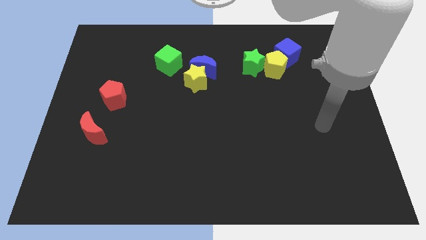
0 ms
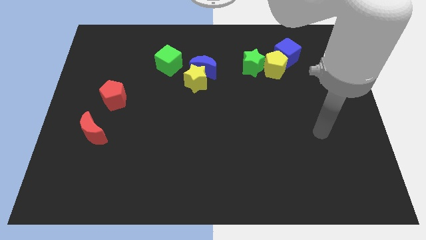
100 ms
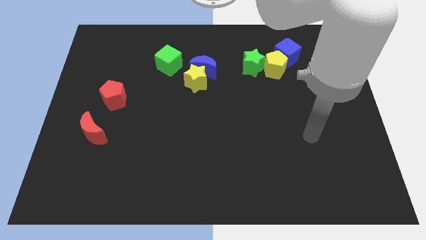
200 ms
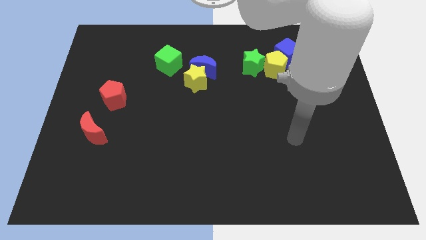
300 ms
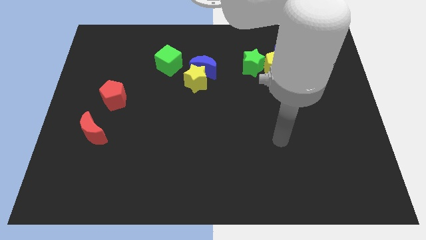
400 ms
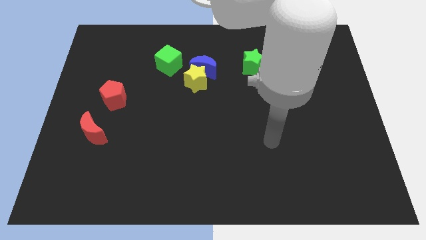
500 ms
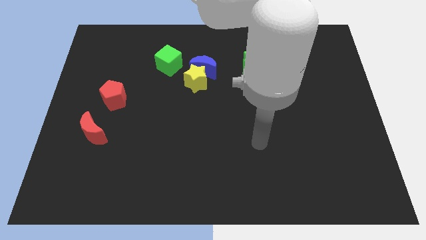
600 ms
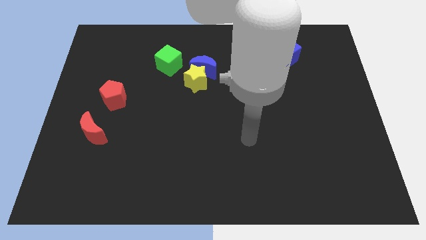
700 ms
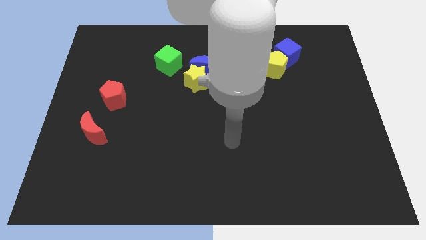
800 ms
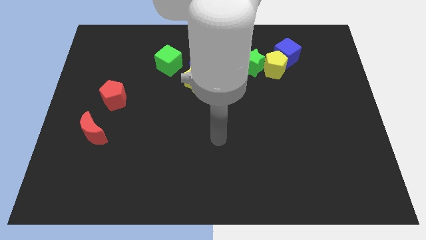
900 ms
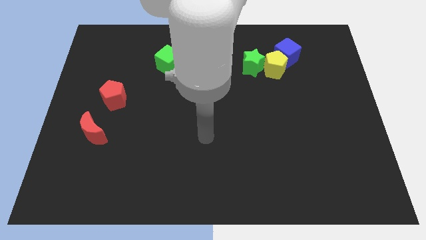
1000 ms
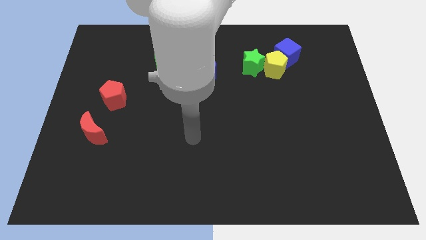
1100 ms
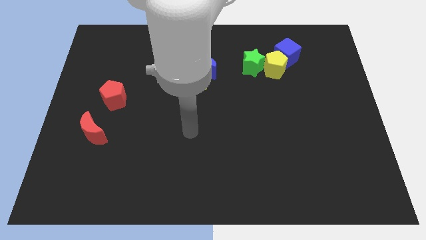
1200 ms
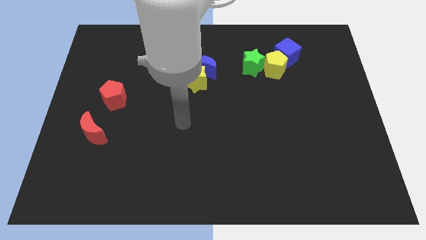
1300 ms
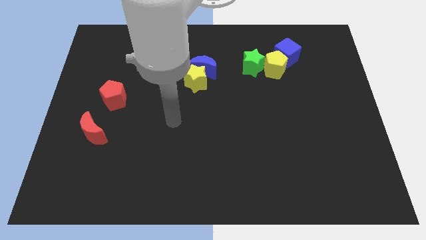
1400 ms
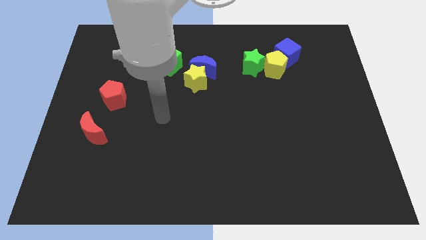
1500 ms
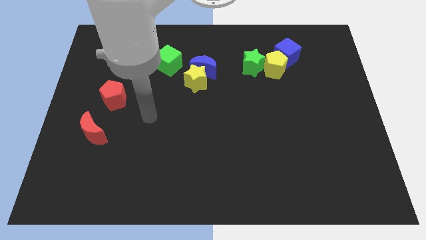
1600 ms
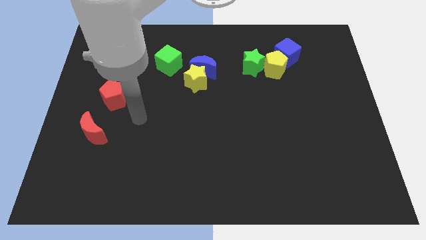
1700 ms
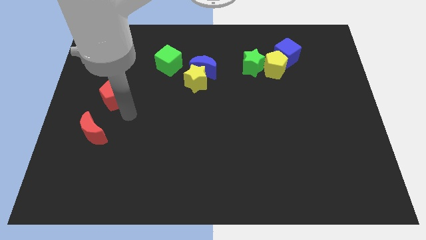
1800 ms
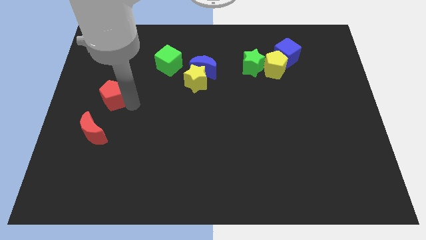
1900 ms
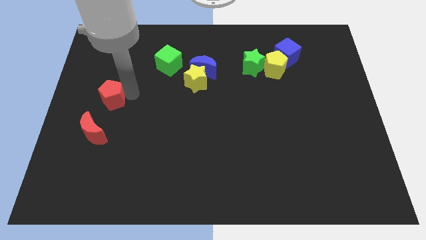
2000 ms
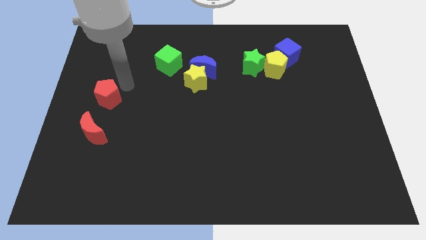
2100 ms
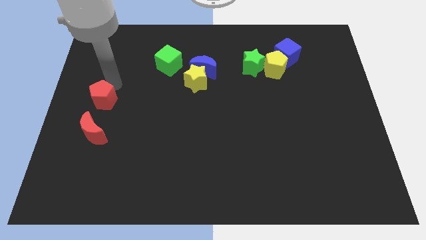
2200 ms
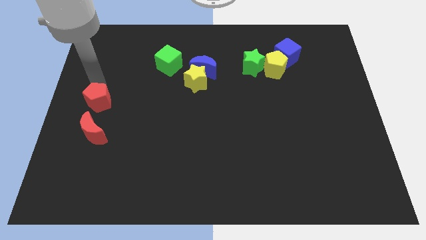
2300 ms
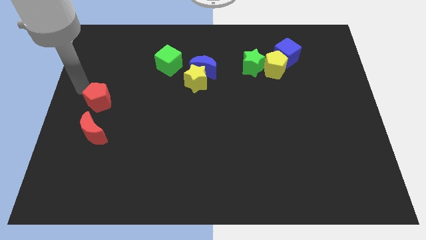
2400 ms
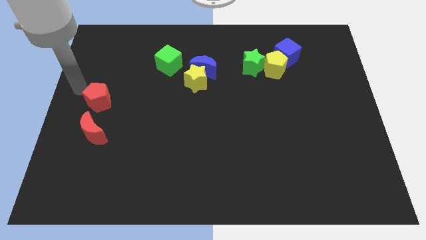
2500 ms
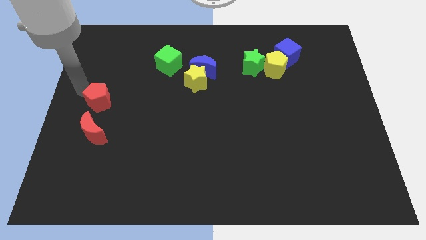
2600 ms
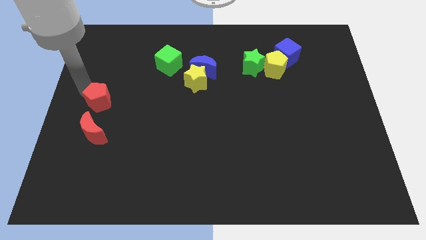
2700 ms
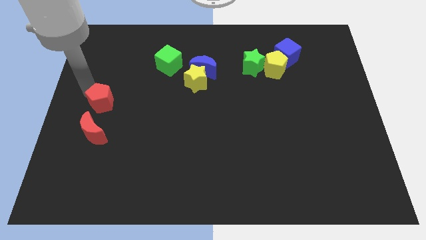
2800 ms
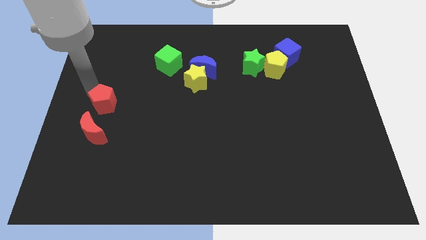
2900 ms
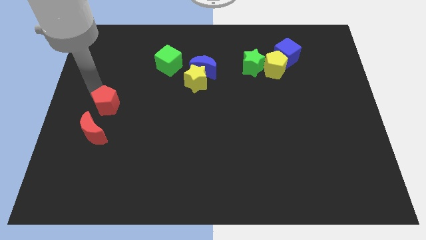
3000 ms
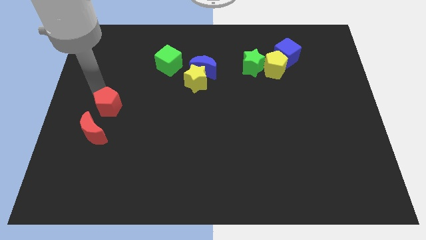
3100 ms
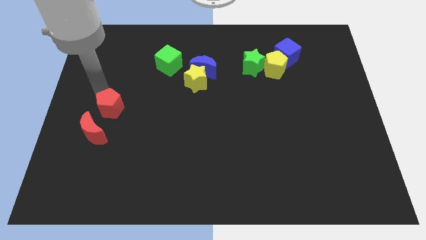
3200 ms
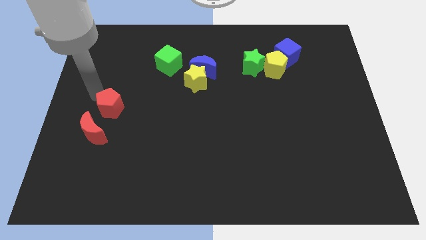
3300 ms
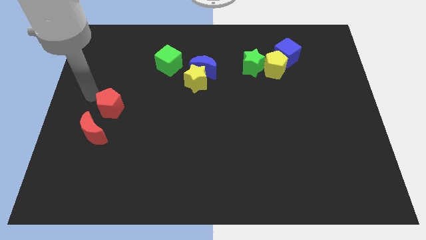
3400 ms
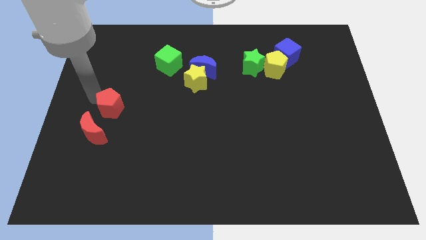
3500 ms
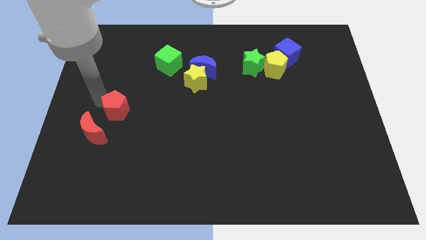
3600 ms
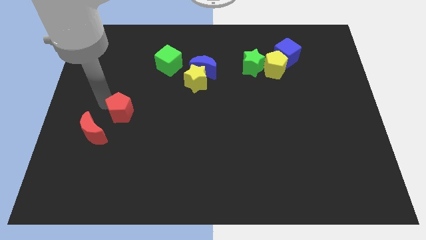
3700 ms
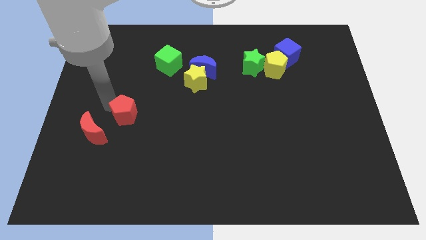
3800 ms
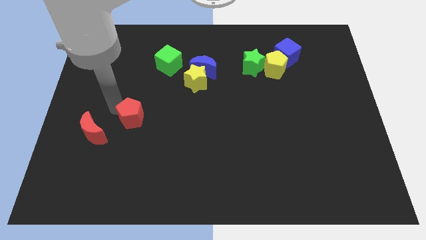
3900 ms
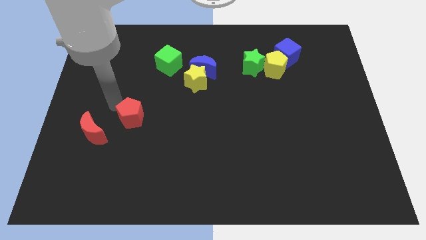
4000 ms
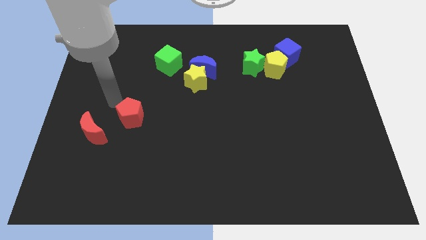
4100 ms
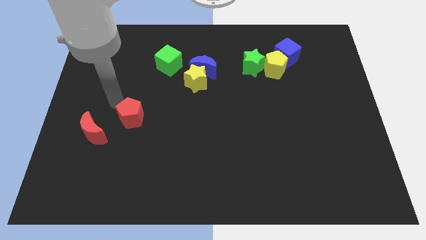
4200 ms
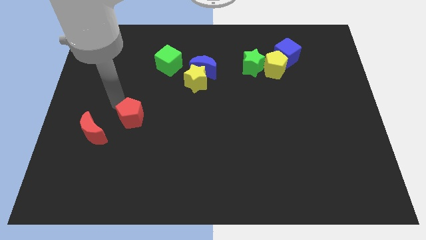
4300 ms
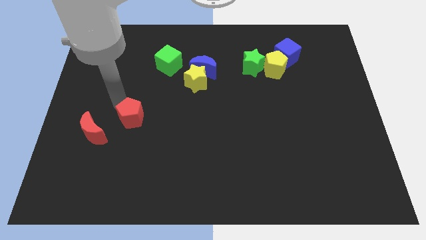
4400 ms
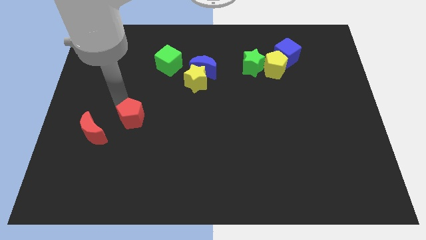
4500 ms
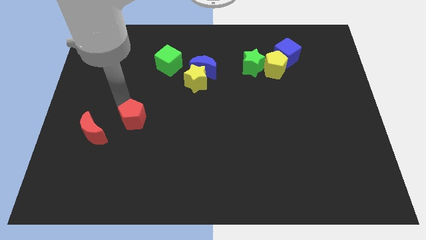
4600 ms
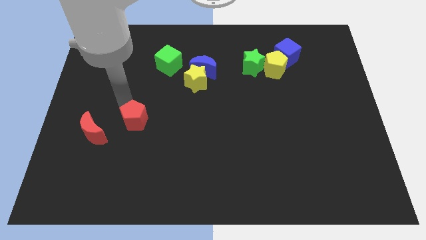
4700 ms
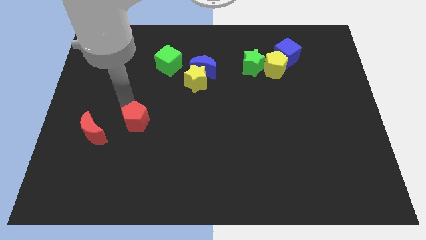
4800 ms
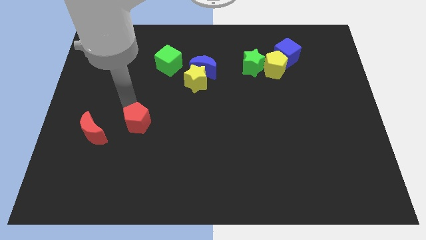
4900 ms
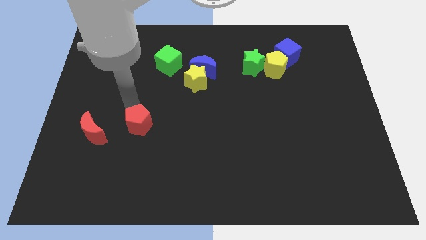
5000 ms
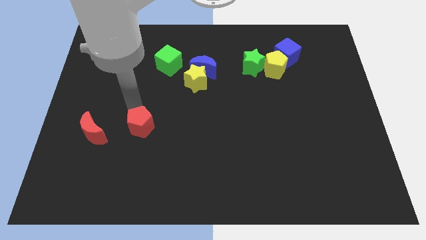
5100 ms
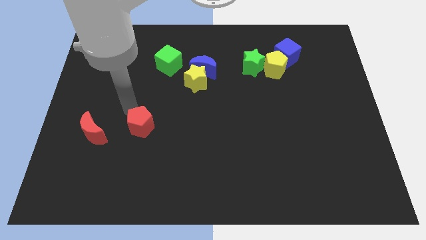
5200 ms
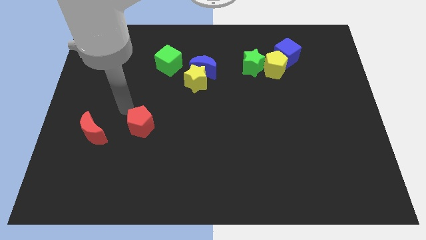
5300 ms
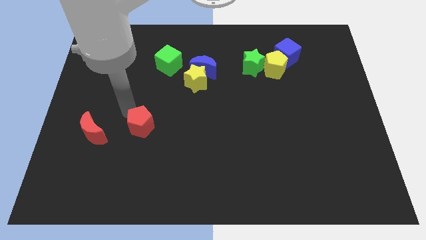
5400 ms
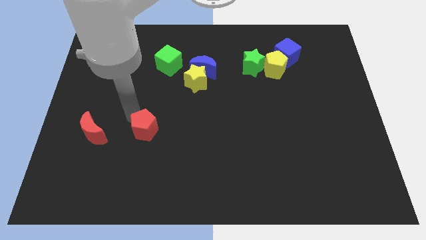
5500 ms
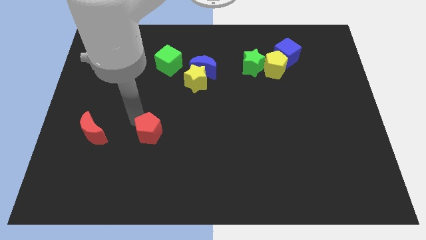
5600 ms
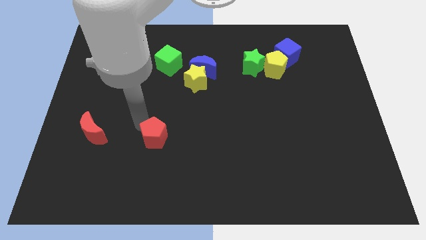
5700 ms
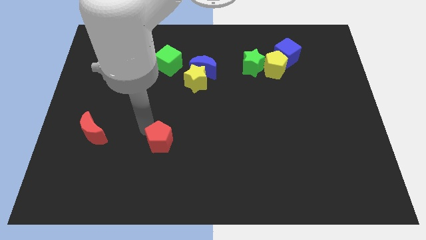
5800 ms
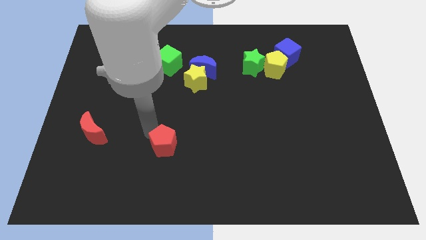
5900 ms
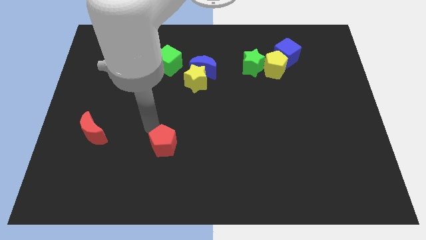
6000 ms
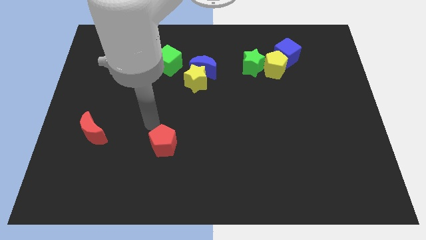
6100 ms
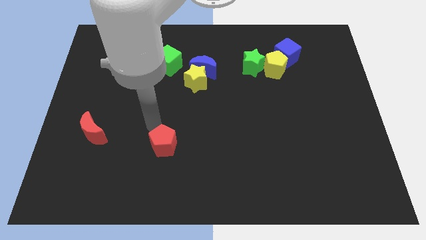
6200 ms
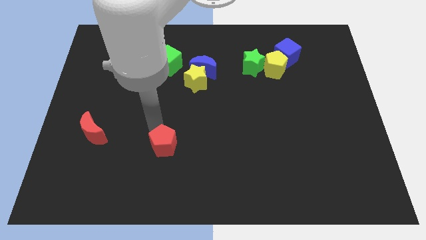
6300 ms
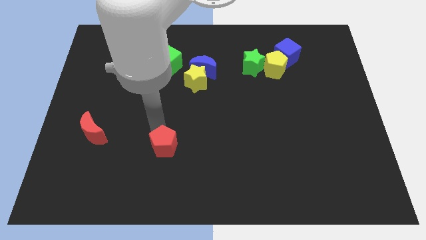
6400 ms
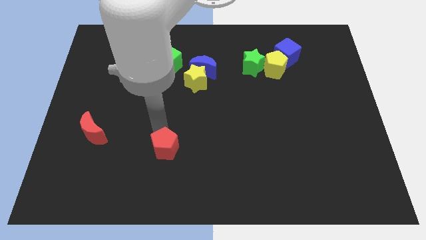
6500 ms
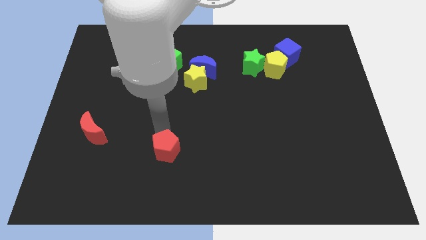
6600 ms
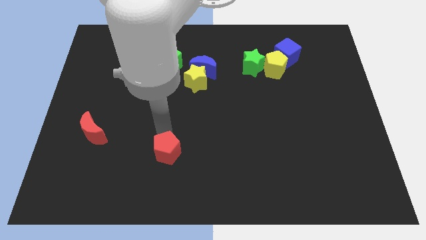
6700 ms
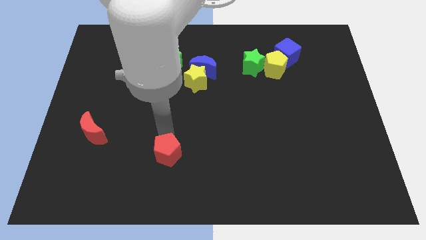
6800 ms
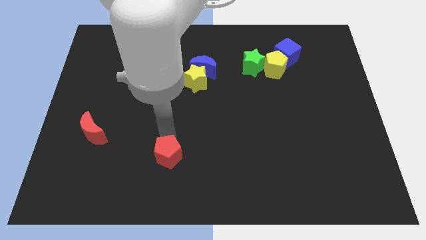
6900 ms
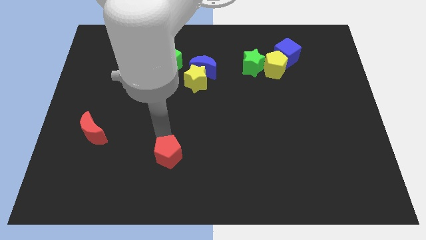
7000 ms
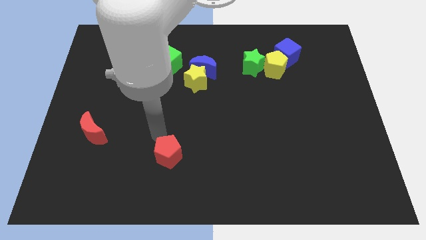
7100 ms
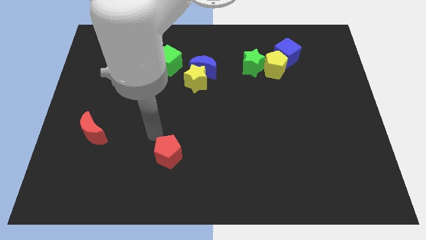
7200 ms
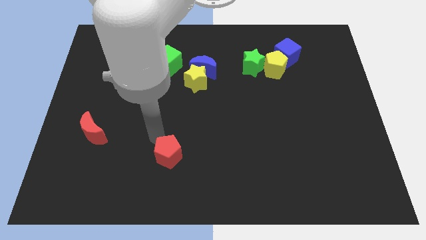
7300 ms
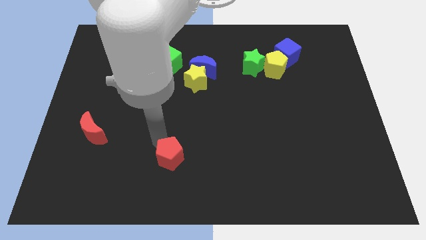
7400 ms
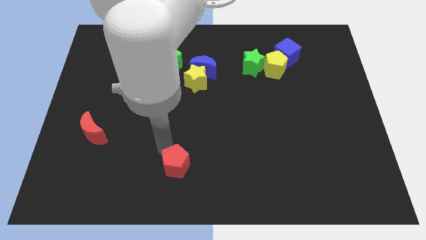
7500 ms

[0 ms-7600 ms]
push the red pentagon to the bottom
